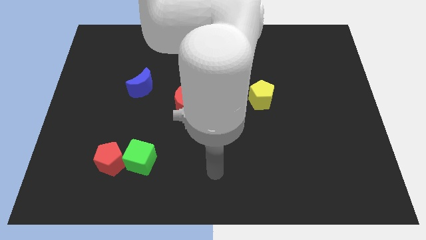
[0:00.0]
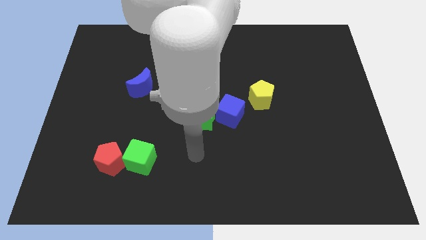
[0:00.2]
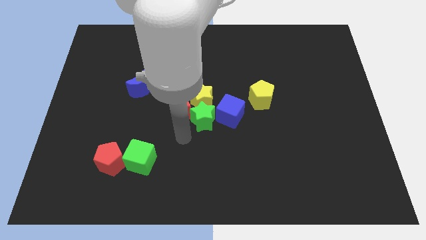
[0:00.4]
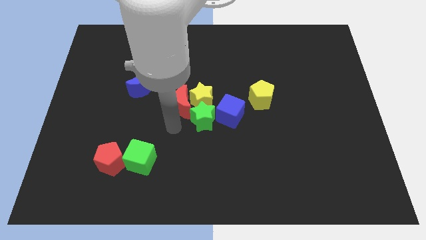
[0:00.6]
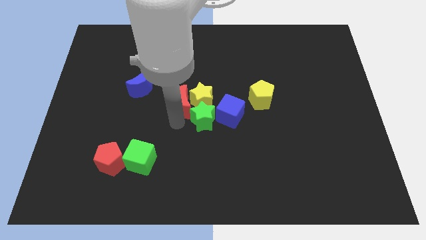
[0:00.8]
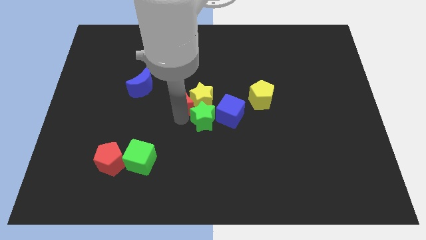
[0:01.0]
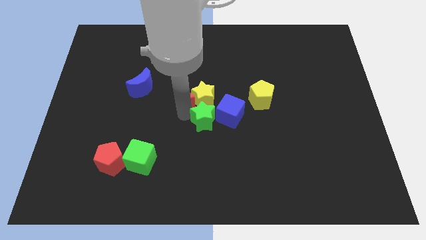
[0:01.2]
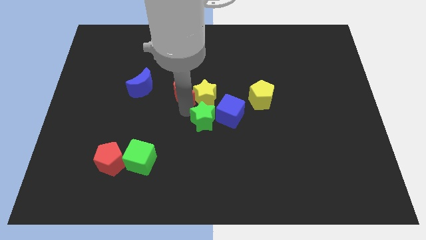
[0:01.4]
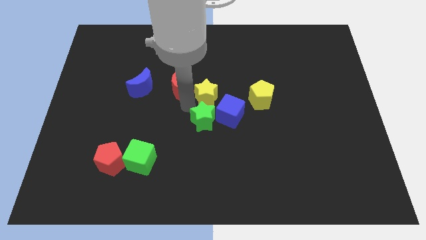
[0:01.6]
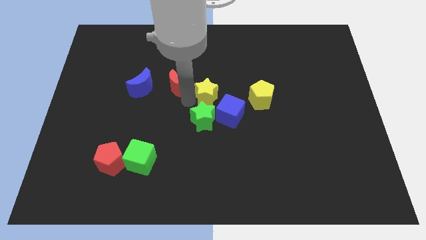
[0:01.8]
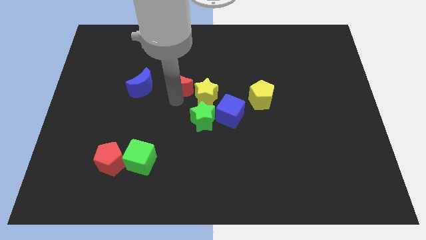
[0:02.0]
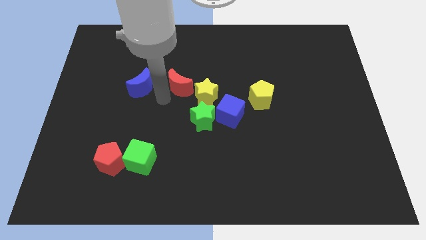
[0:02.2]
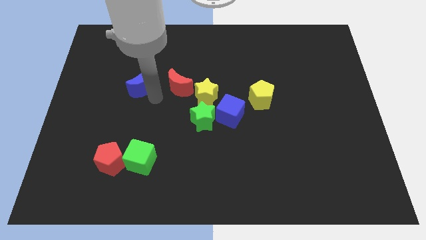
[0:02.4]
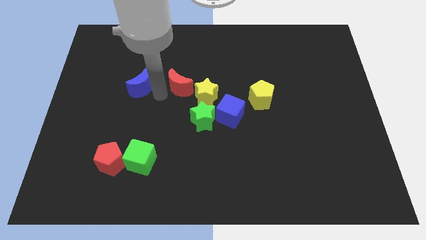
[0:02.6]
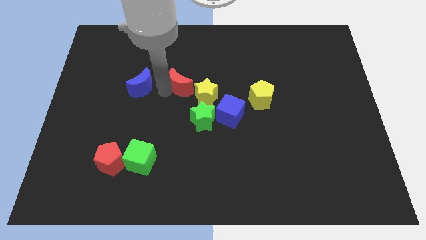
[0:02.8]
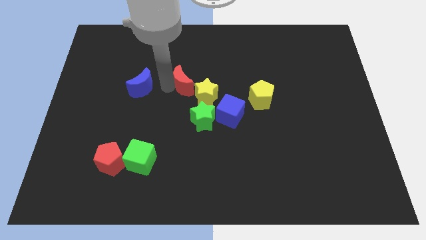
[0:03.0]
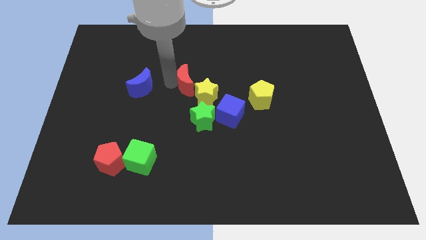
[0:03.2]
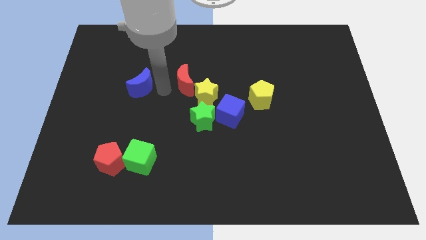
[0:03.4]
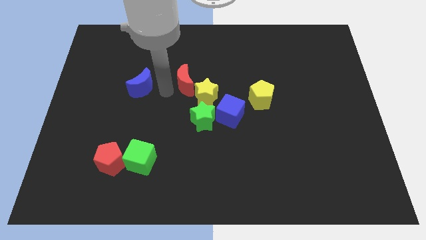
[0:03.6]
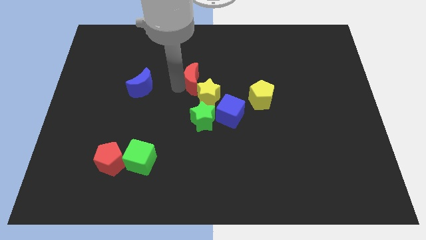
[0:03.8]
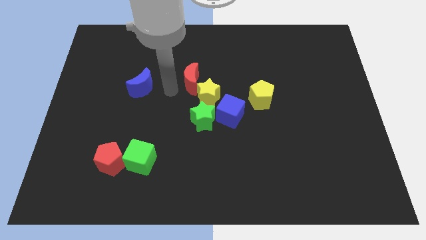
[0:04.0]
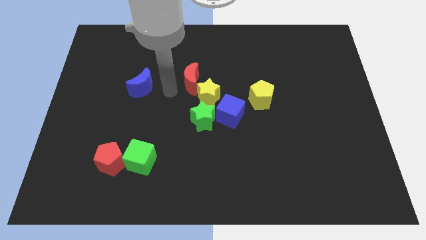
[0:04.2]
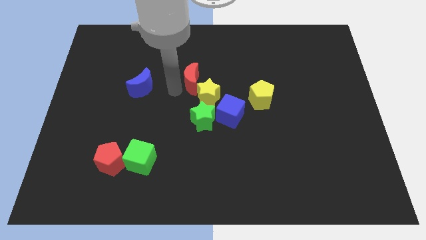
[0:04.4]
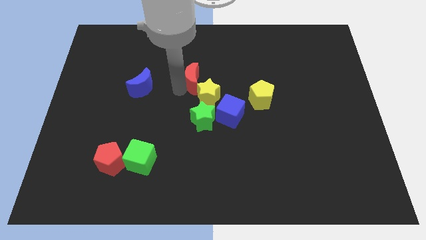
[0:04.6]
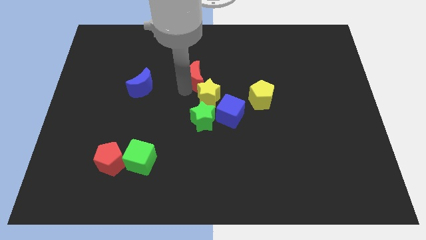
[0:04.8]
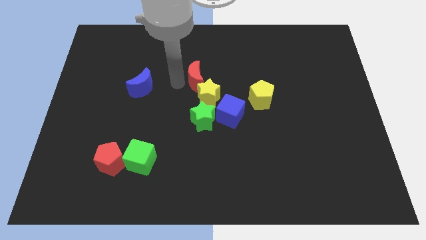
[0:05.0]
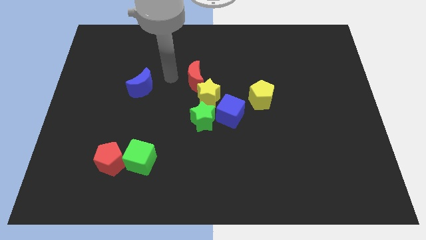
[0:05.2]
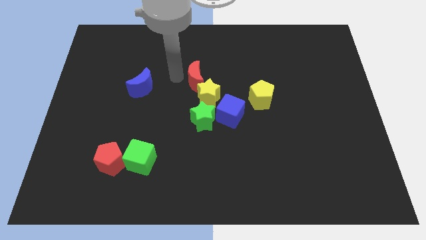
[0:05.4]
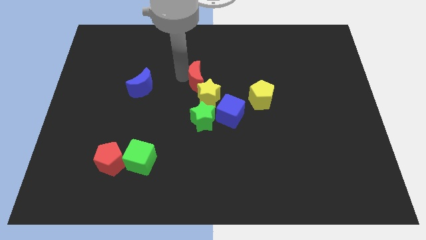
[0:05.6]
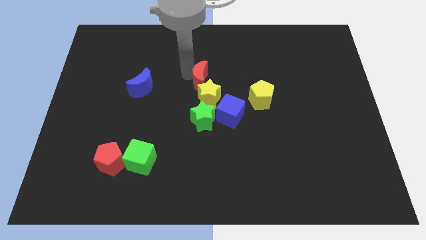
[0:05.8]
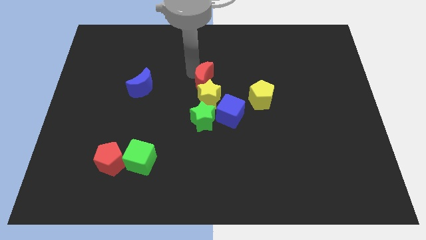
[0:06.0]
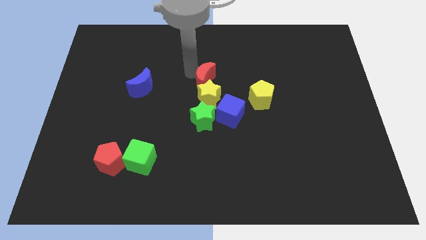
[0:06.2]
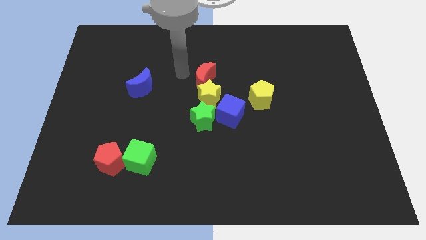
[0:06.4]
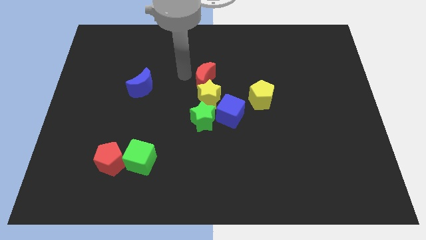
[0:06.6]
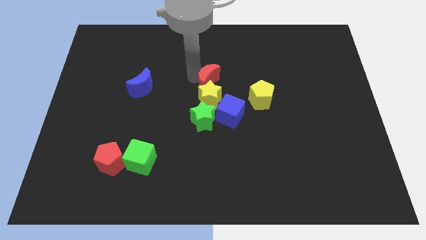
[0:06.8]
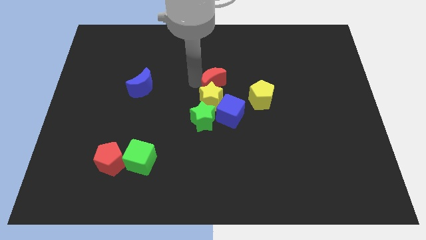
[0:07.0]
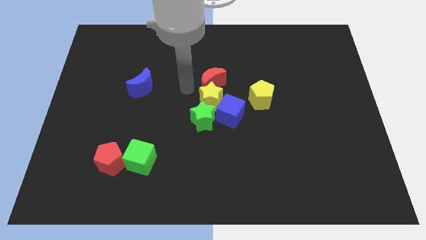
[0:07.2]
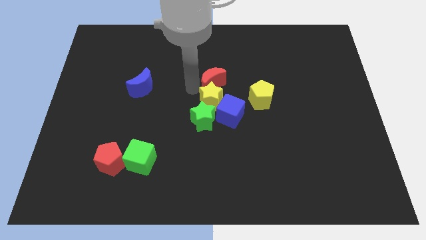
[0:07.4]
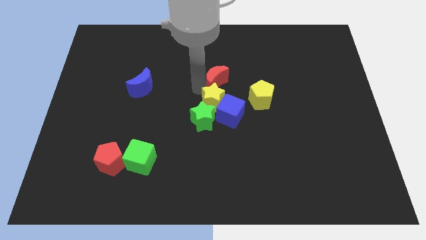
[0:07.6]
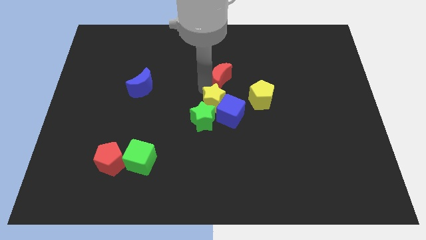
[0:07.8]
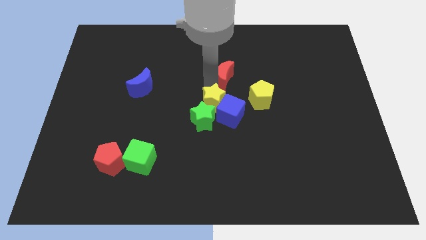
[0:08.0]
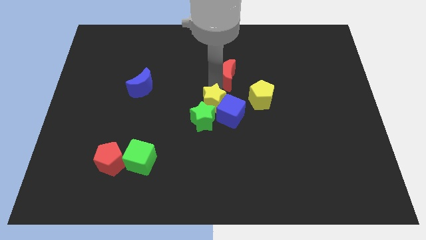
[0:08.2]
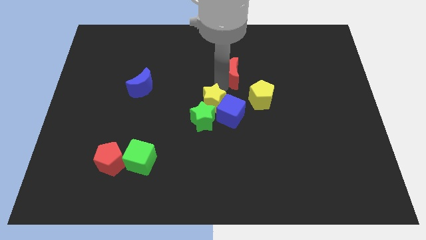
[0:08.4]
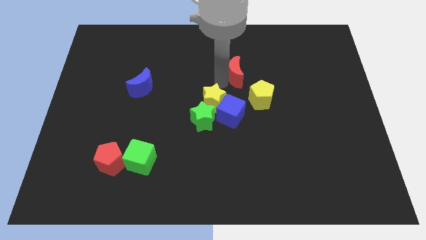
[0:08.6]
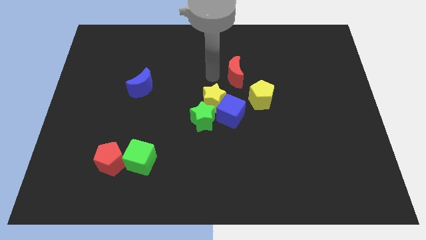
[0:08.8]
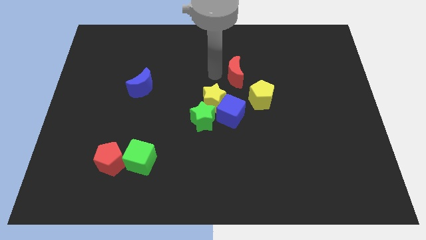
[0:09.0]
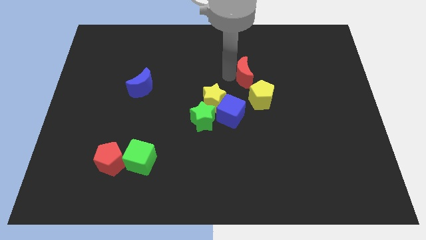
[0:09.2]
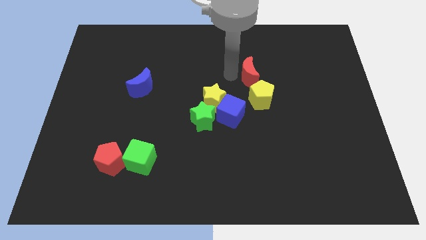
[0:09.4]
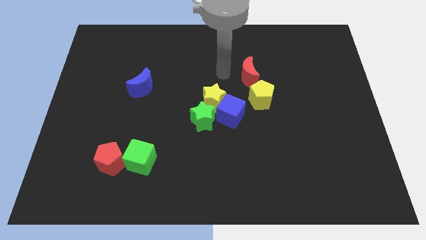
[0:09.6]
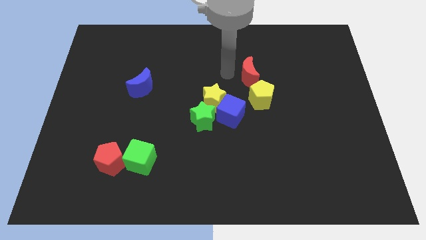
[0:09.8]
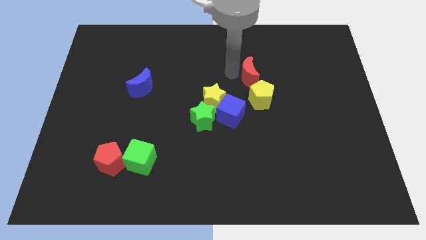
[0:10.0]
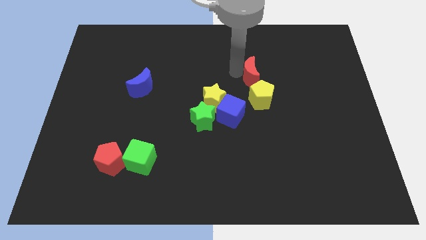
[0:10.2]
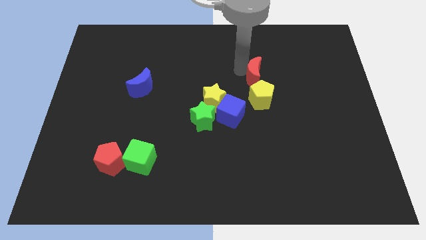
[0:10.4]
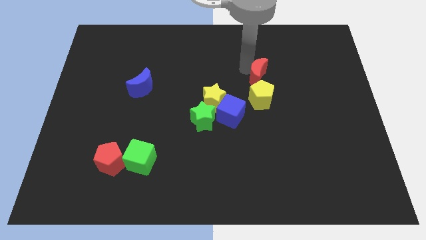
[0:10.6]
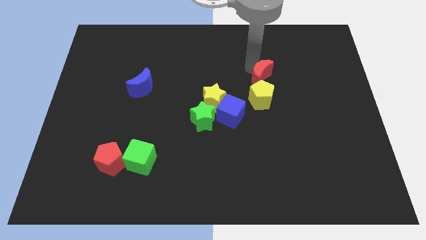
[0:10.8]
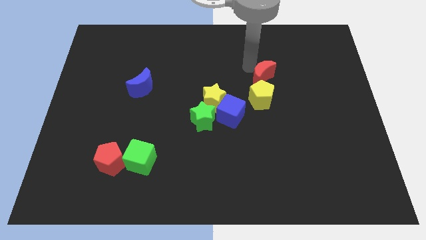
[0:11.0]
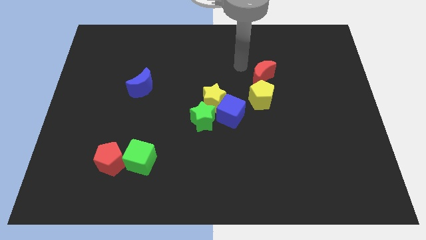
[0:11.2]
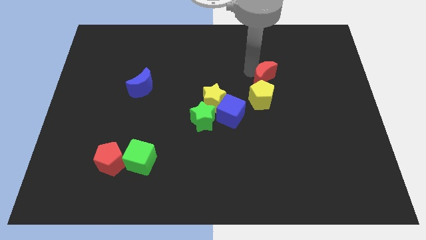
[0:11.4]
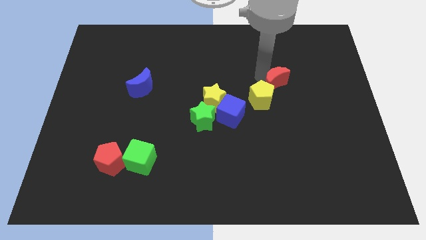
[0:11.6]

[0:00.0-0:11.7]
push the red moon right

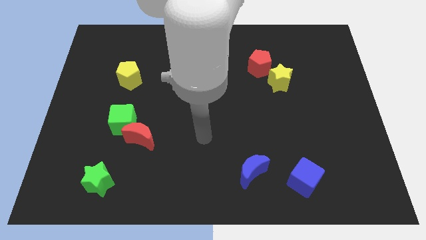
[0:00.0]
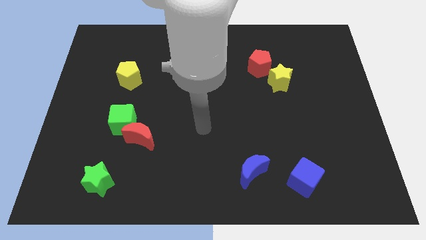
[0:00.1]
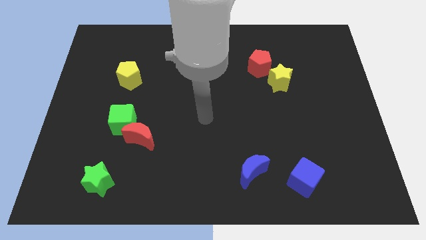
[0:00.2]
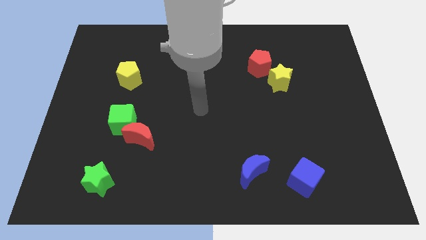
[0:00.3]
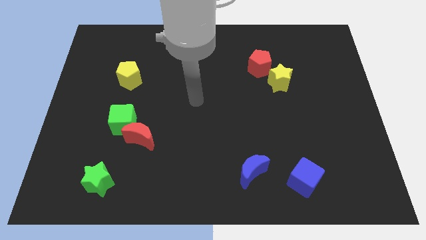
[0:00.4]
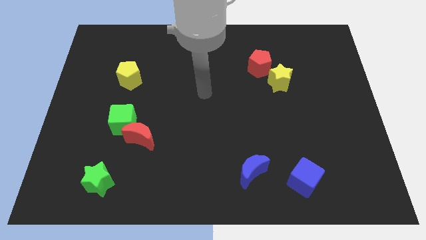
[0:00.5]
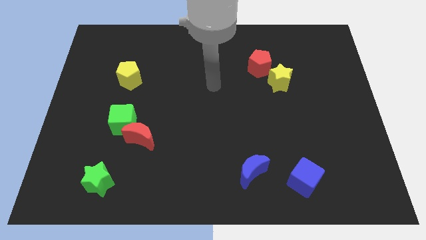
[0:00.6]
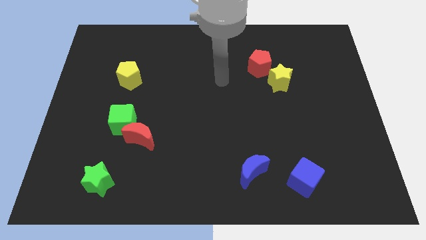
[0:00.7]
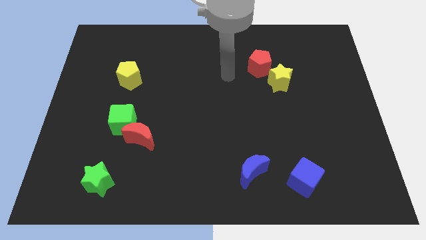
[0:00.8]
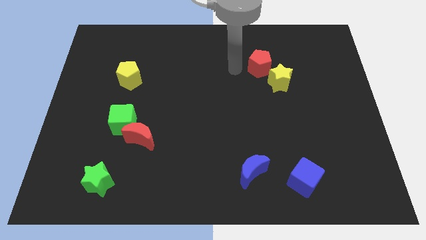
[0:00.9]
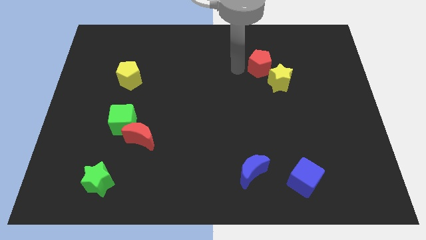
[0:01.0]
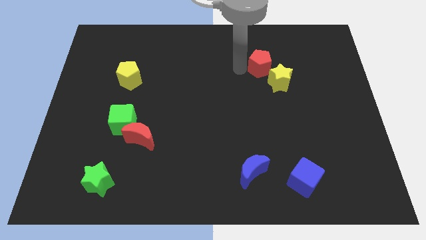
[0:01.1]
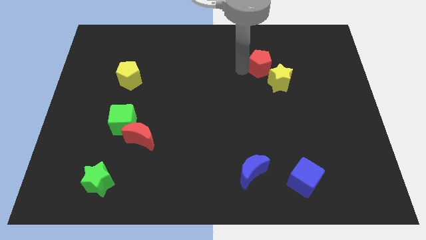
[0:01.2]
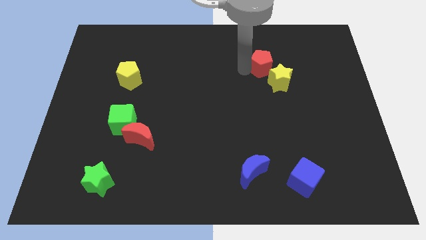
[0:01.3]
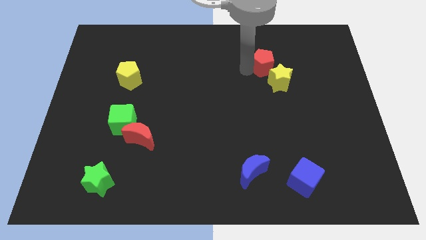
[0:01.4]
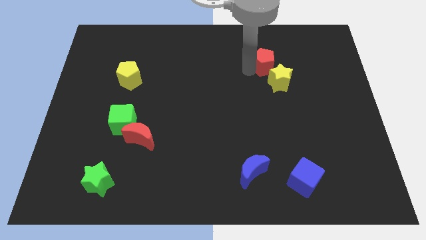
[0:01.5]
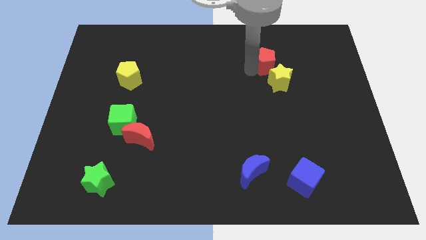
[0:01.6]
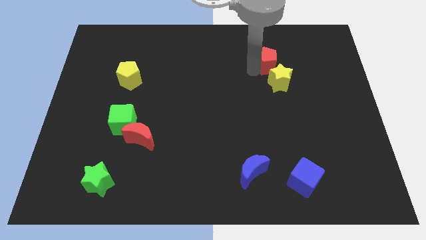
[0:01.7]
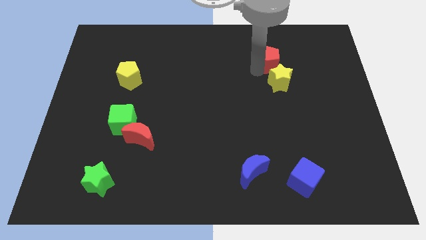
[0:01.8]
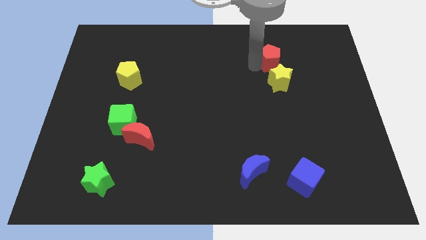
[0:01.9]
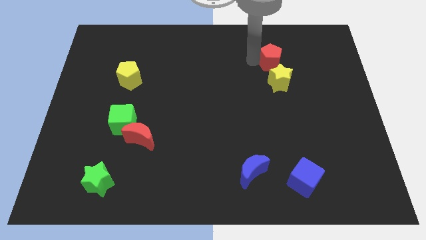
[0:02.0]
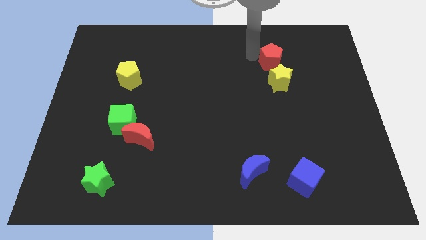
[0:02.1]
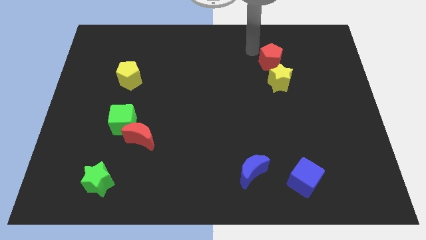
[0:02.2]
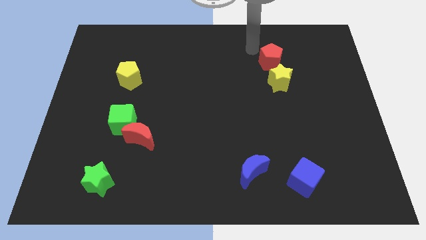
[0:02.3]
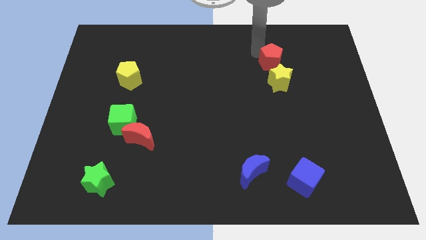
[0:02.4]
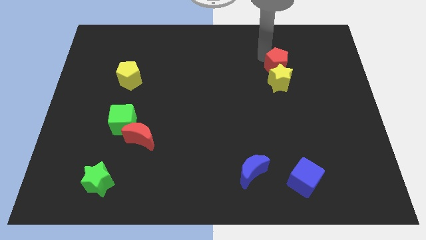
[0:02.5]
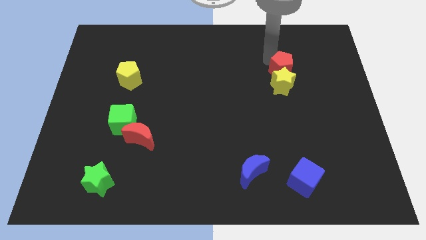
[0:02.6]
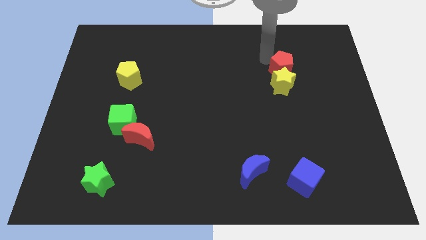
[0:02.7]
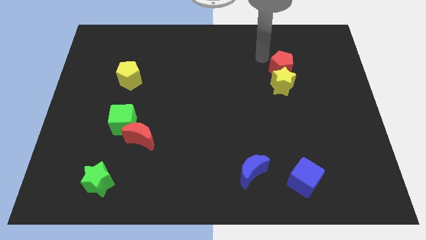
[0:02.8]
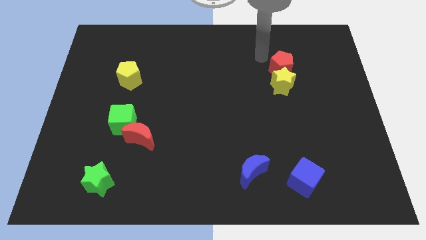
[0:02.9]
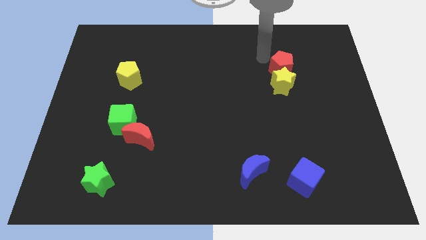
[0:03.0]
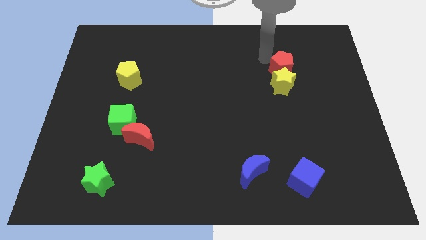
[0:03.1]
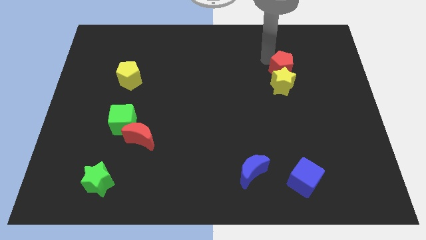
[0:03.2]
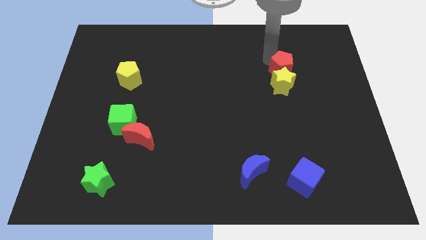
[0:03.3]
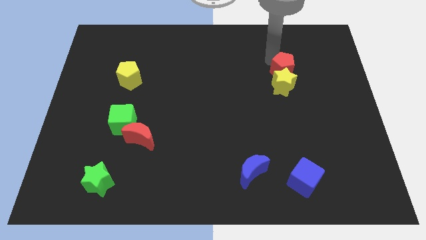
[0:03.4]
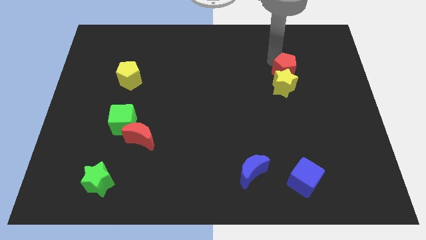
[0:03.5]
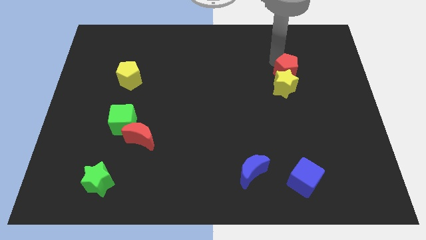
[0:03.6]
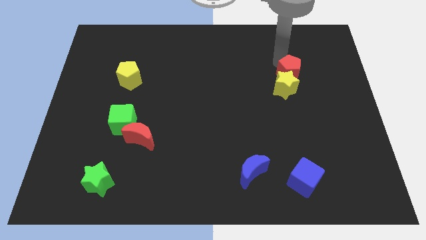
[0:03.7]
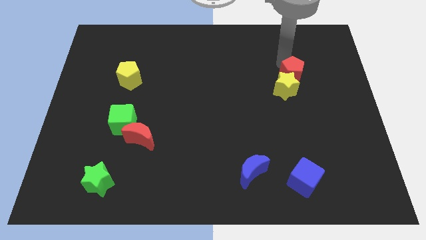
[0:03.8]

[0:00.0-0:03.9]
push the red pentagon diagonally downwards and right somewhat
